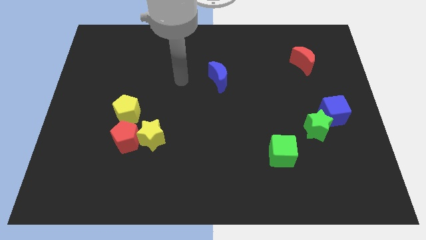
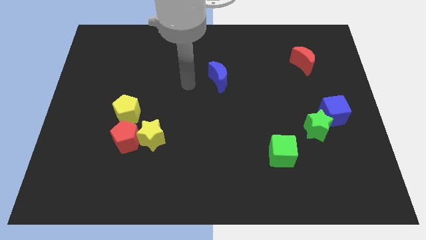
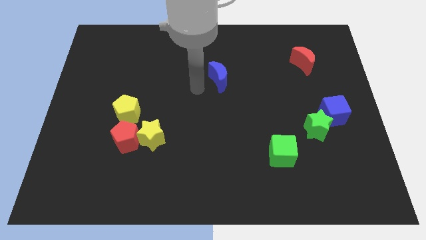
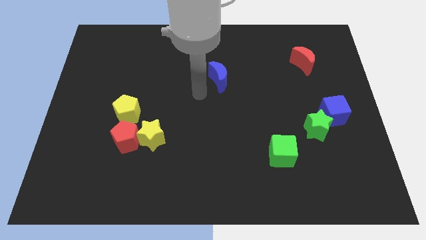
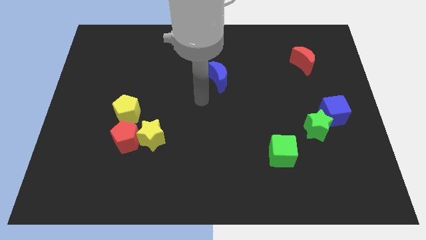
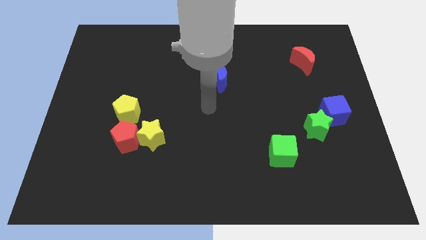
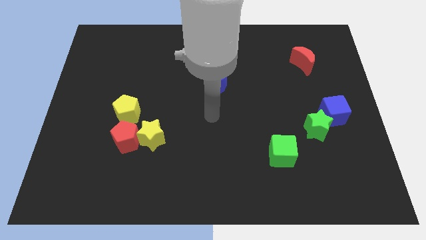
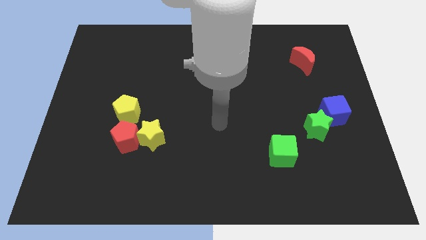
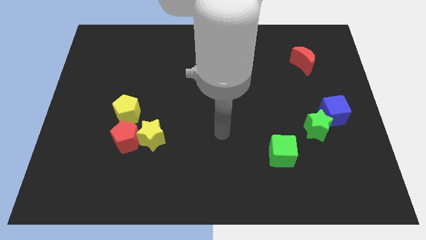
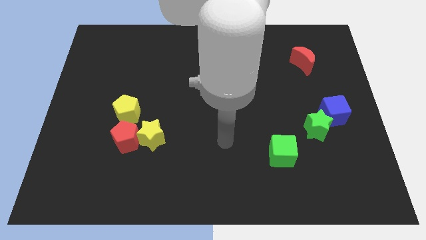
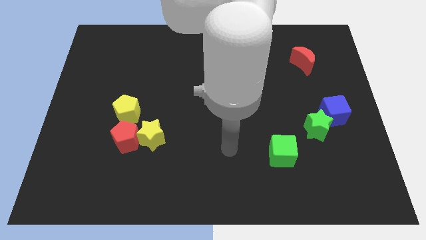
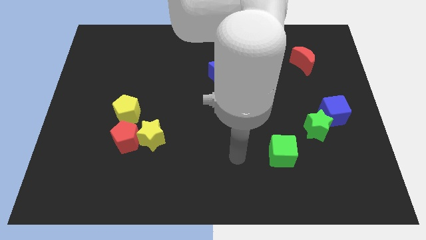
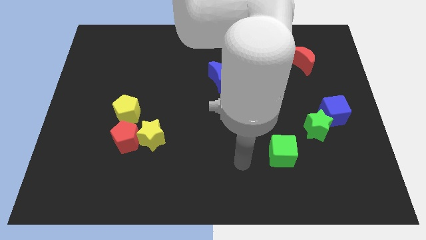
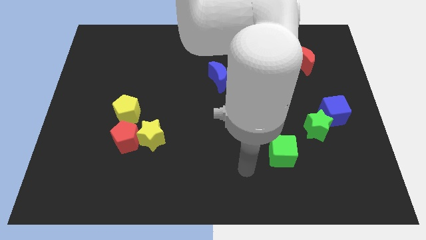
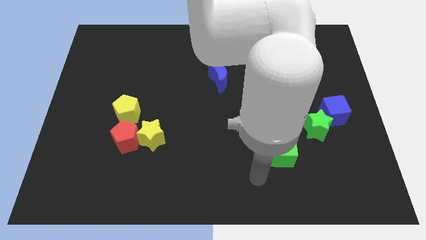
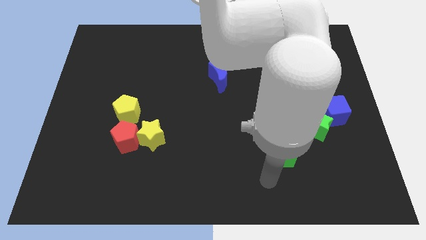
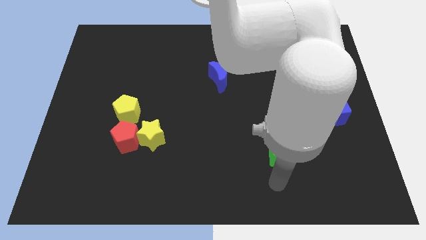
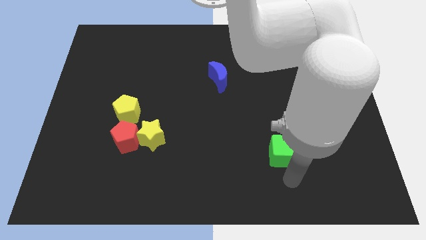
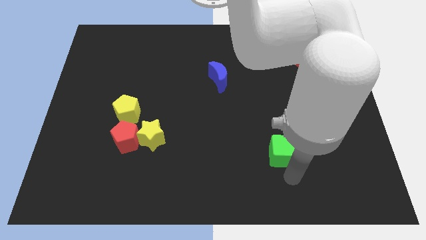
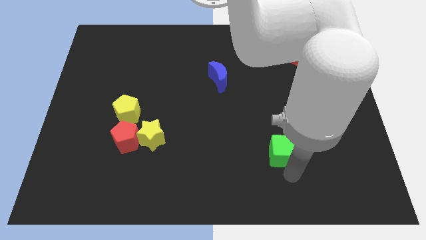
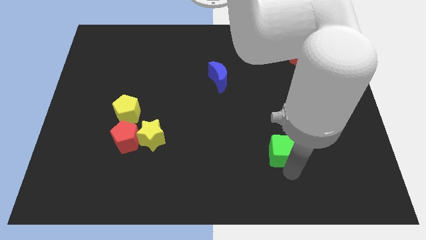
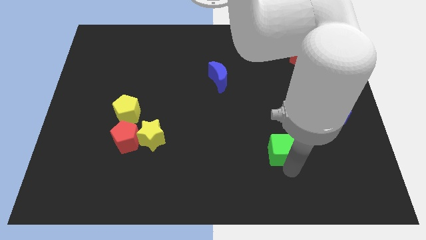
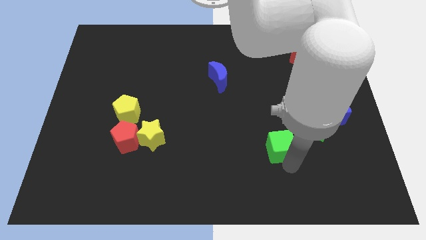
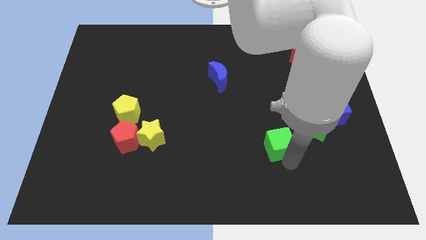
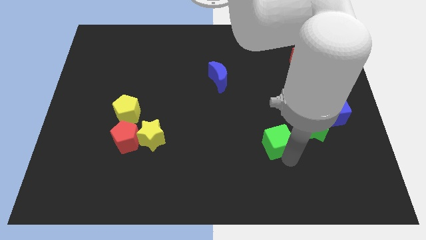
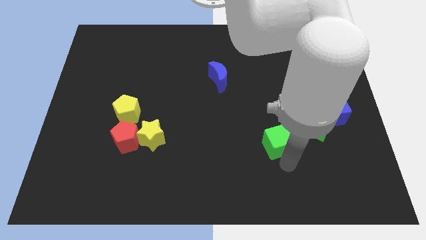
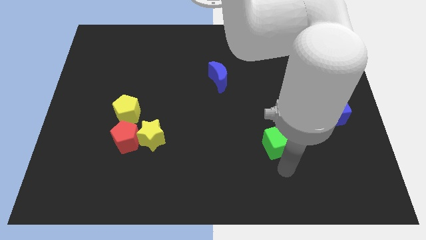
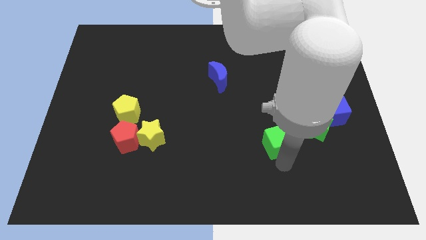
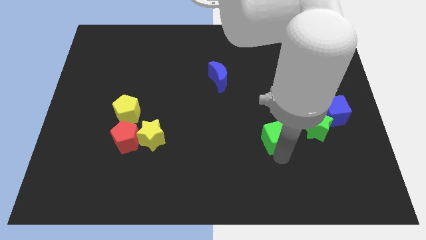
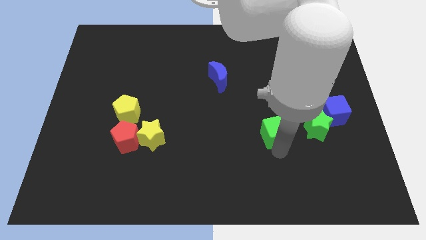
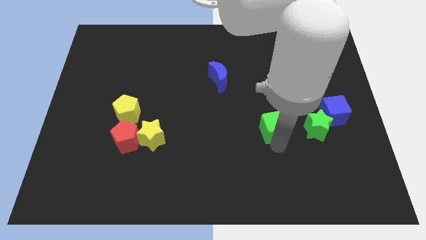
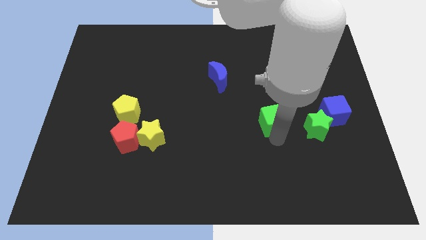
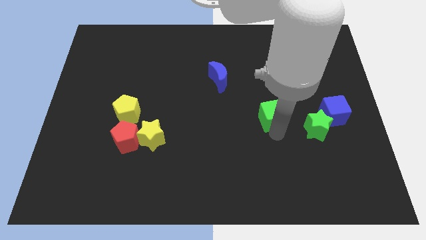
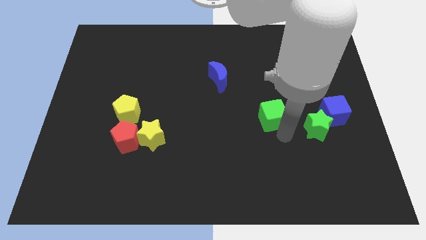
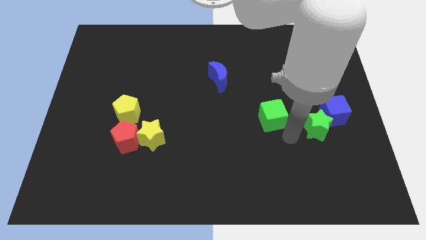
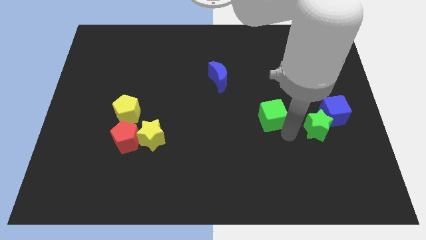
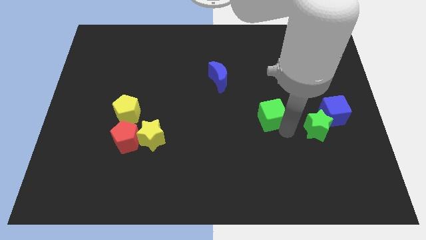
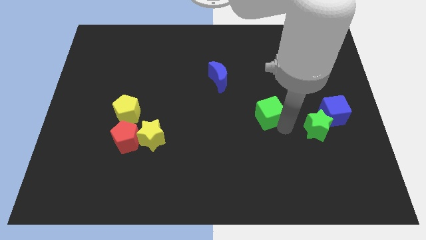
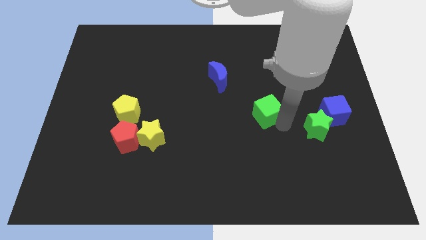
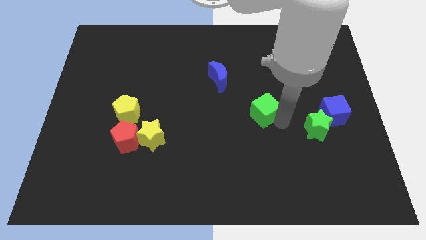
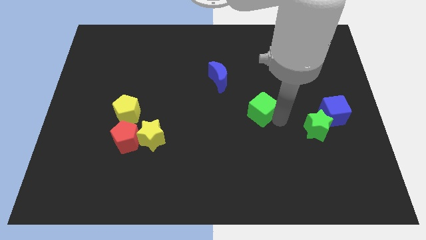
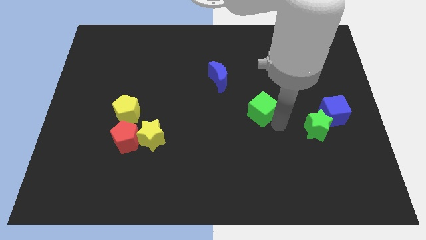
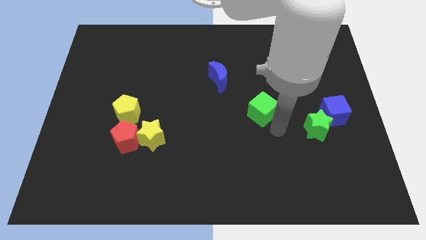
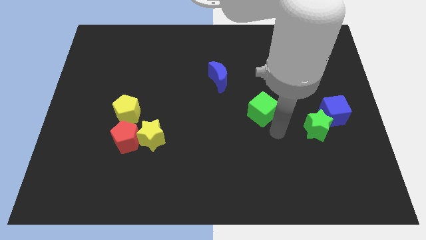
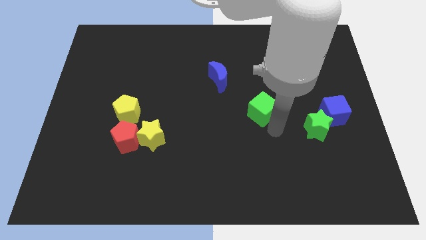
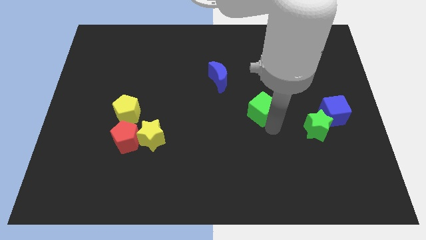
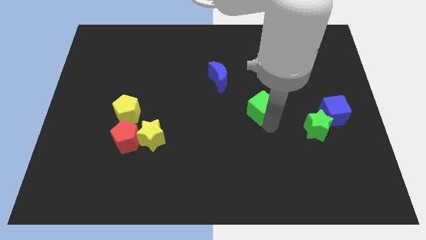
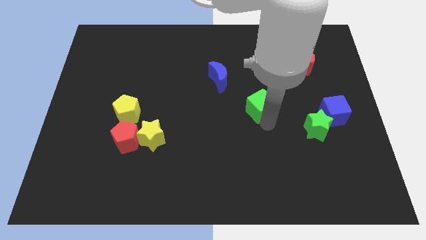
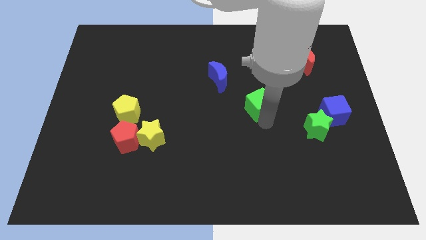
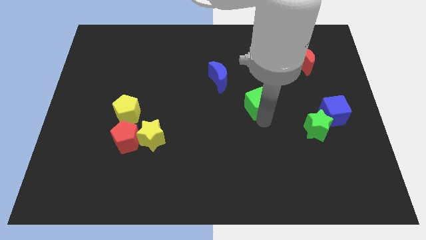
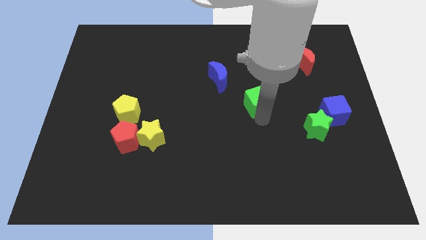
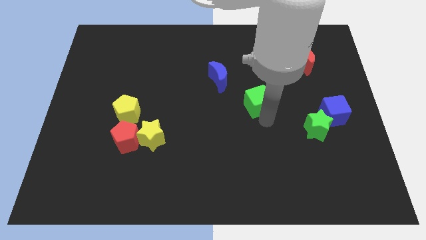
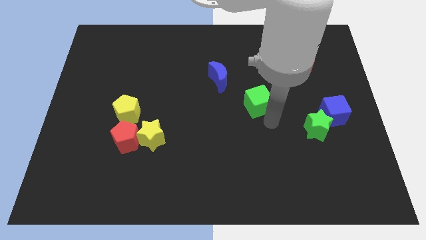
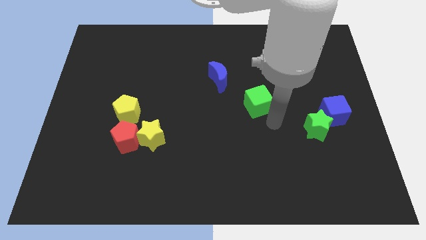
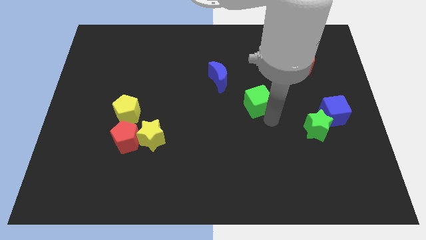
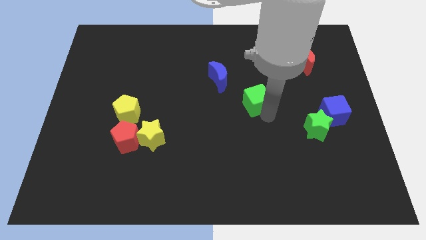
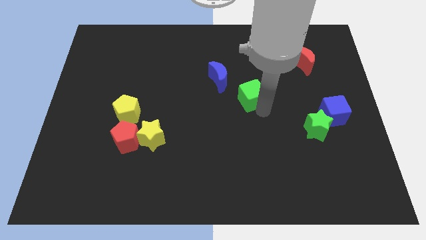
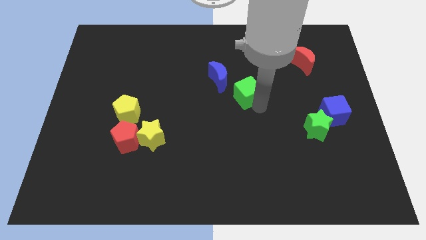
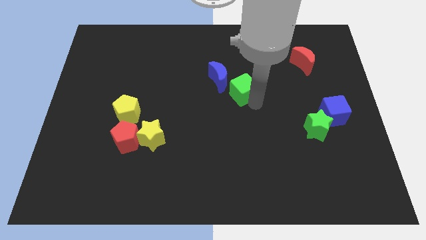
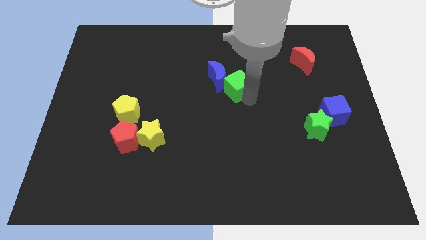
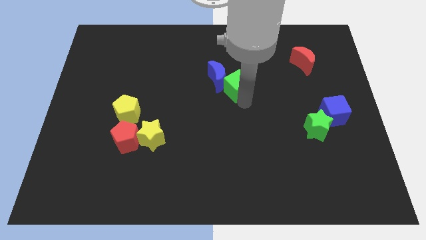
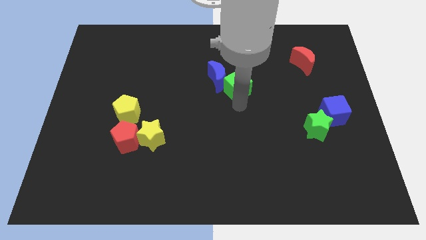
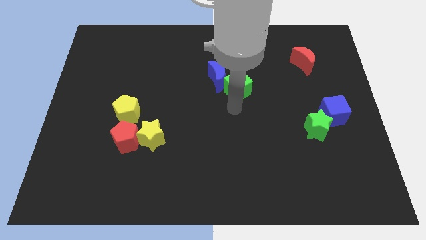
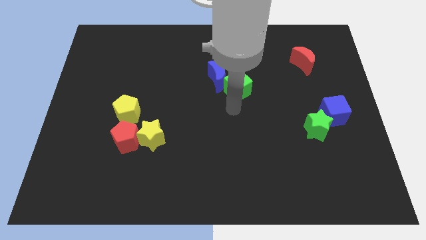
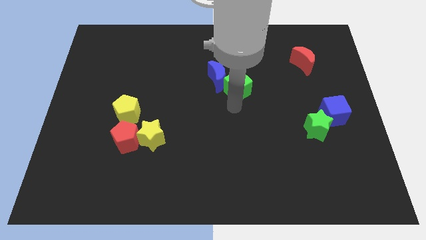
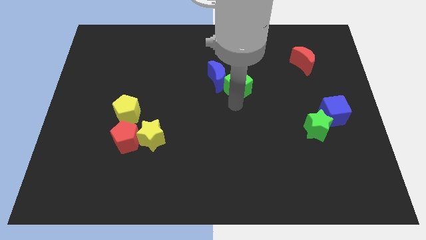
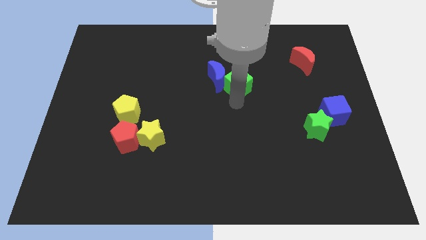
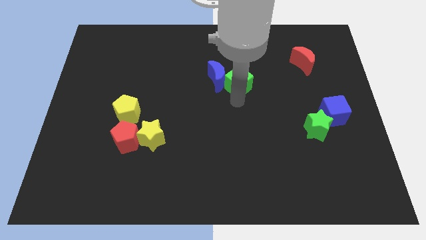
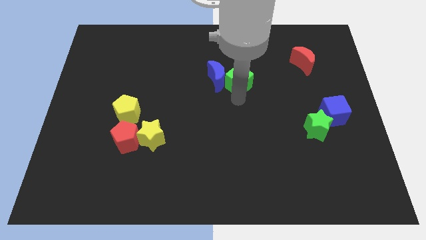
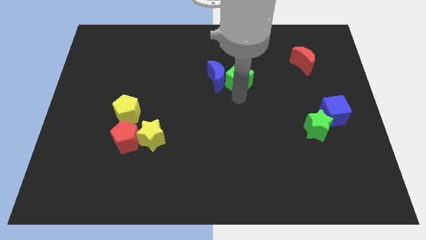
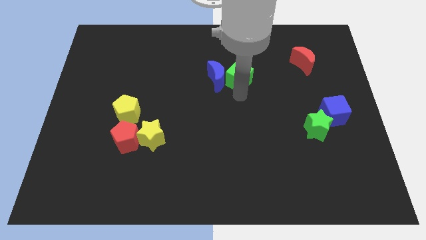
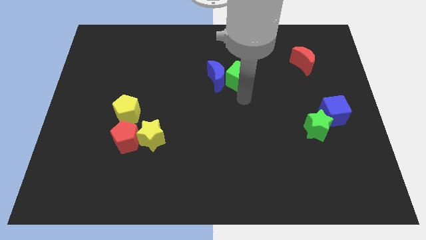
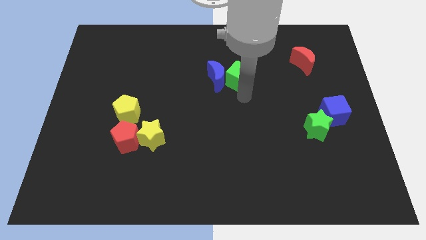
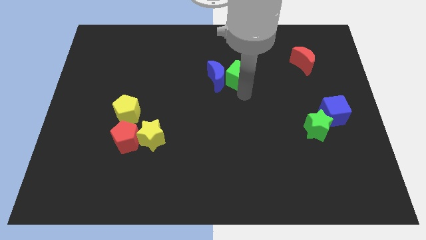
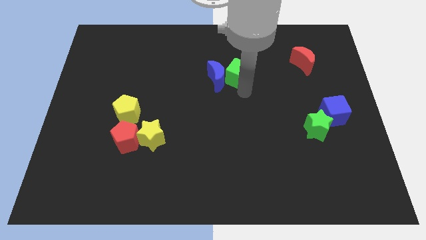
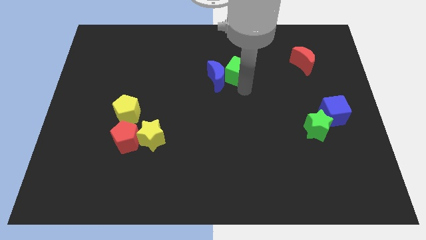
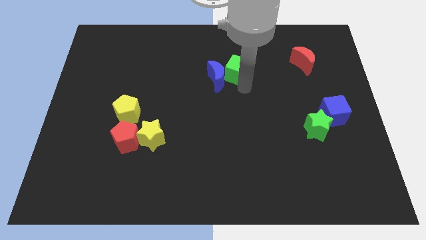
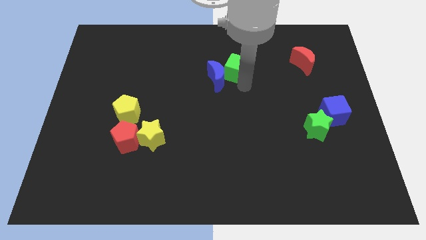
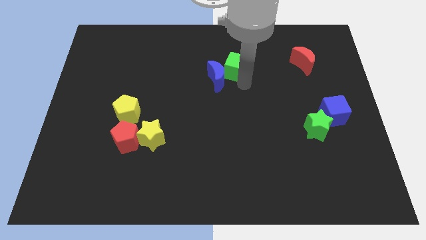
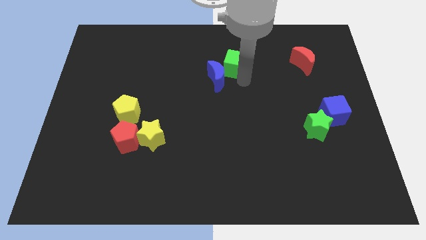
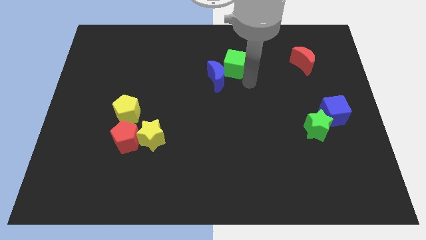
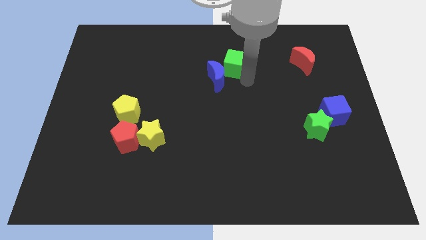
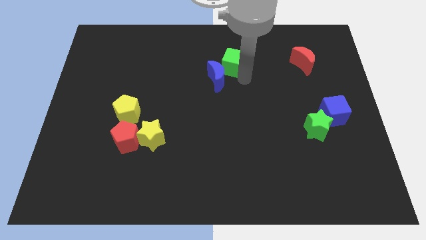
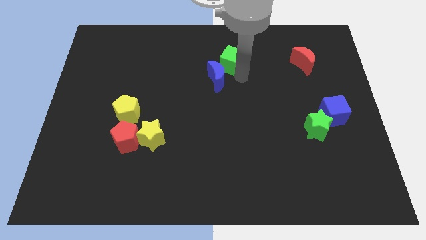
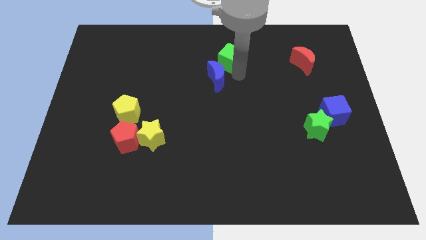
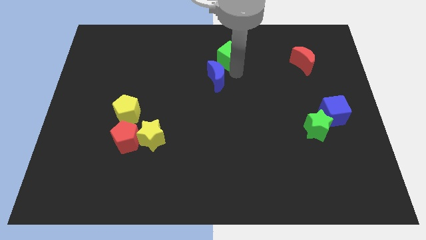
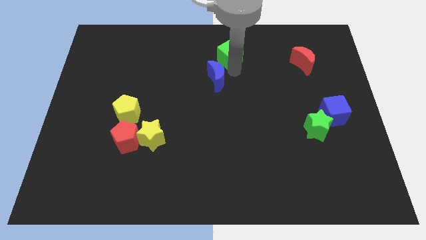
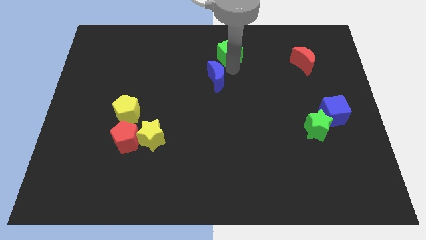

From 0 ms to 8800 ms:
push the green cube to the top side
